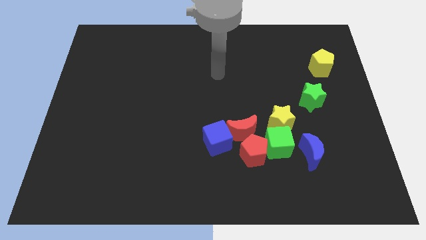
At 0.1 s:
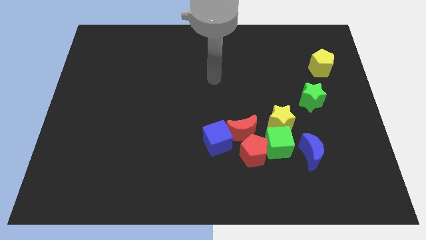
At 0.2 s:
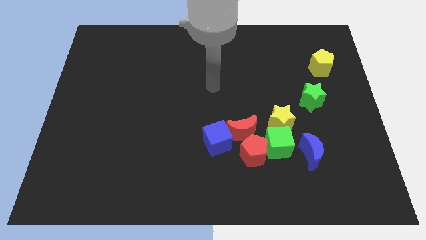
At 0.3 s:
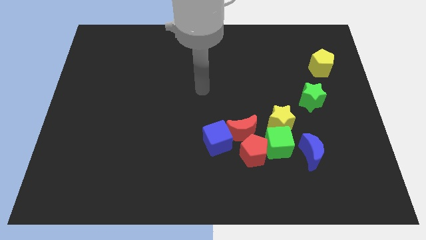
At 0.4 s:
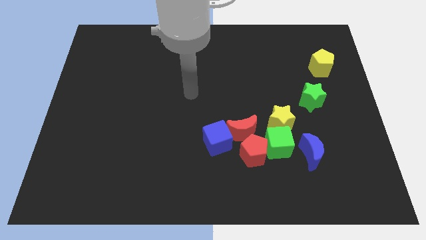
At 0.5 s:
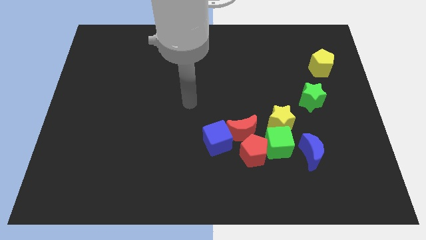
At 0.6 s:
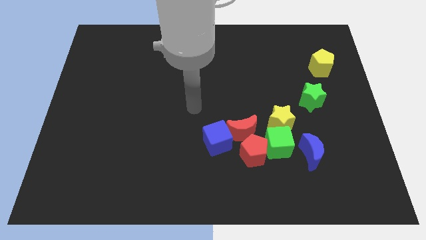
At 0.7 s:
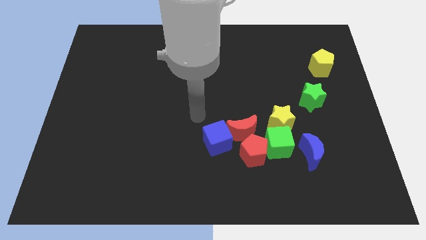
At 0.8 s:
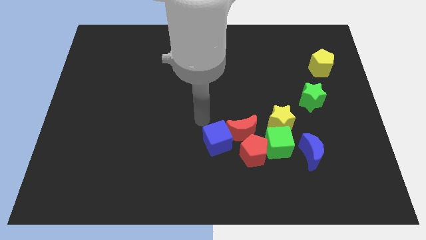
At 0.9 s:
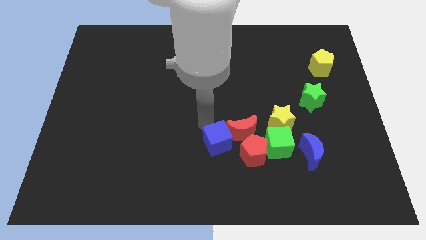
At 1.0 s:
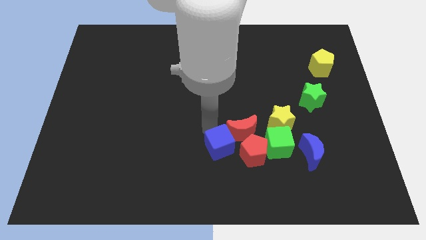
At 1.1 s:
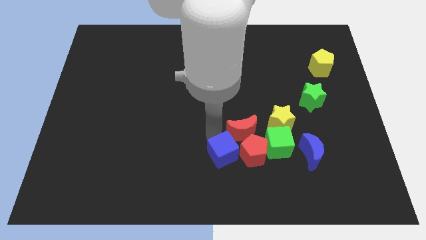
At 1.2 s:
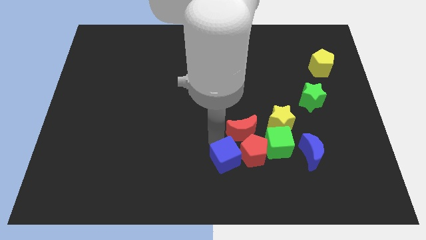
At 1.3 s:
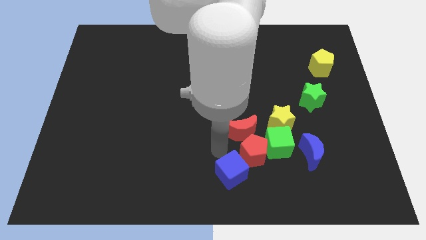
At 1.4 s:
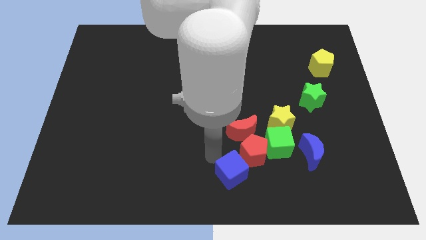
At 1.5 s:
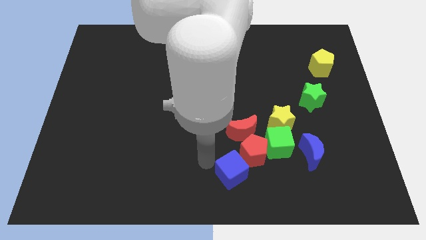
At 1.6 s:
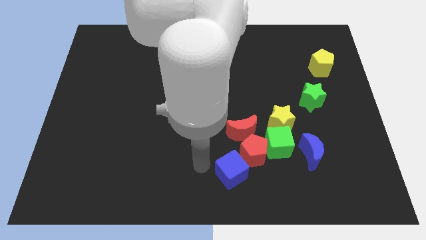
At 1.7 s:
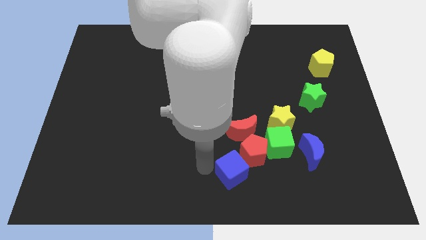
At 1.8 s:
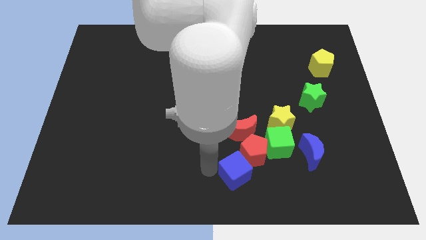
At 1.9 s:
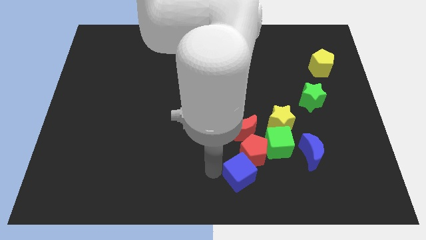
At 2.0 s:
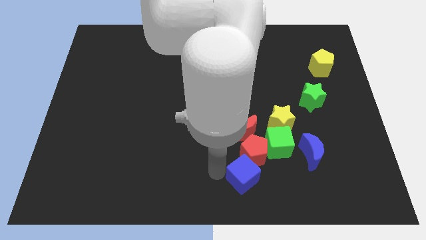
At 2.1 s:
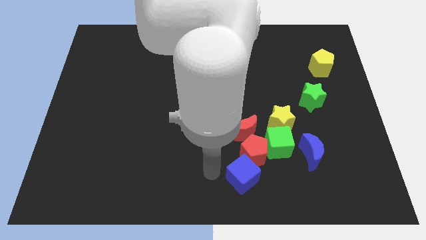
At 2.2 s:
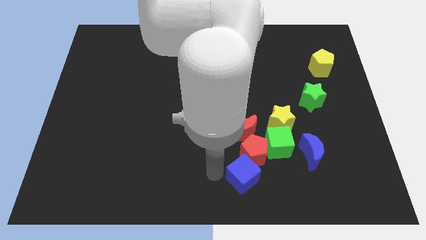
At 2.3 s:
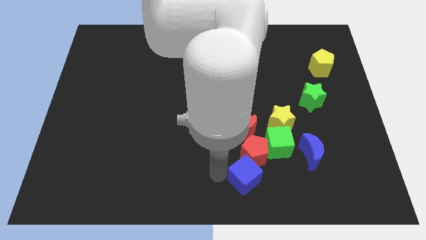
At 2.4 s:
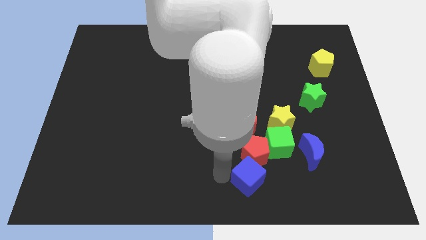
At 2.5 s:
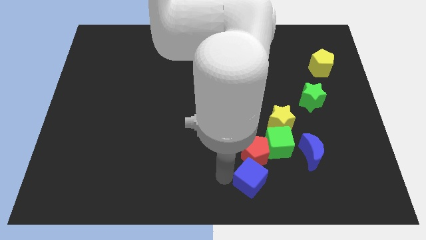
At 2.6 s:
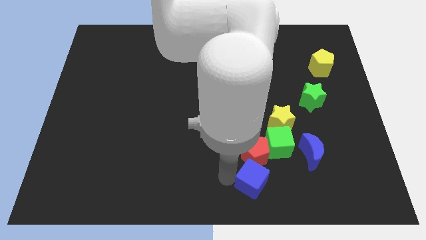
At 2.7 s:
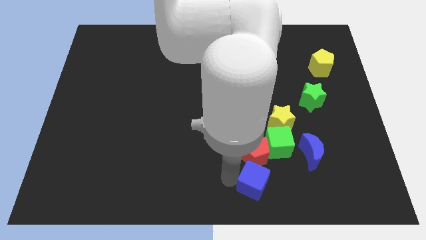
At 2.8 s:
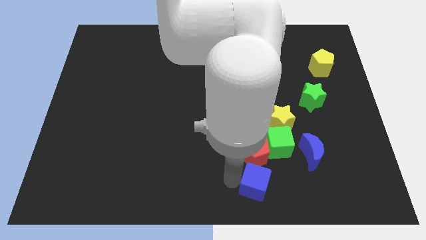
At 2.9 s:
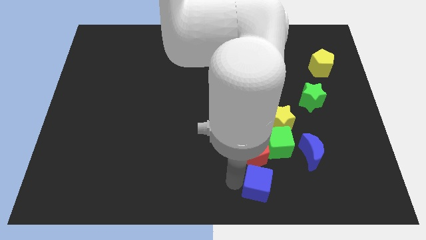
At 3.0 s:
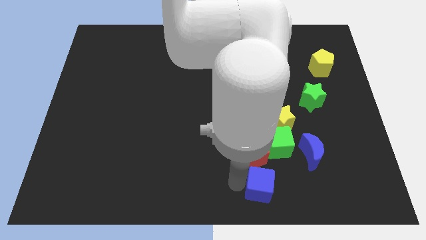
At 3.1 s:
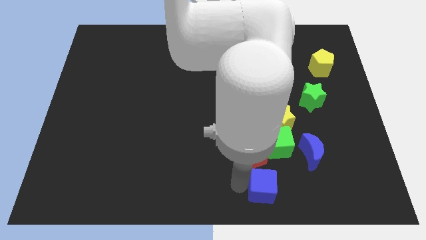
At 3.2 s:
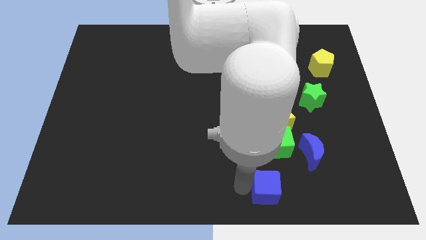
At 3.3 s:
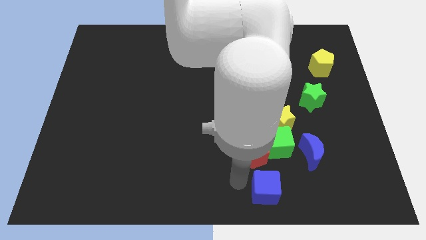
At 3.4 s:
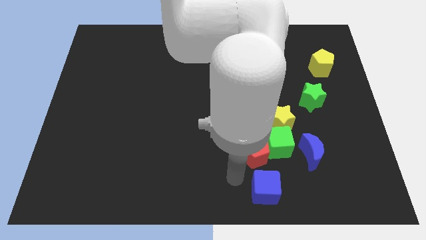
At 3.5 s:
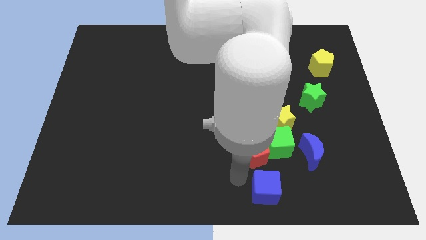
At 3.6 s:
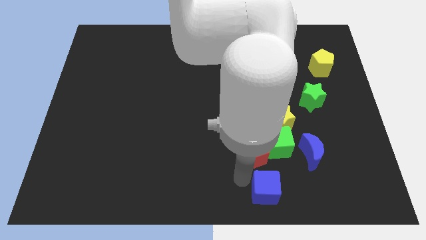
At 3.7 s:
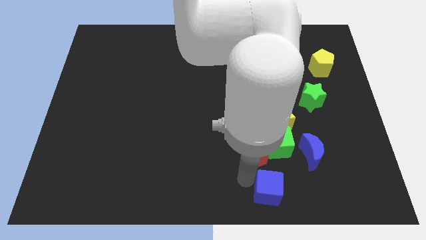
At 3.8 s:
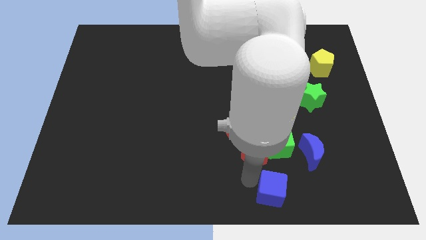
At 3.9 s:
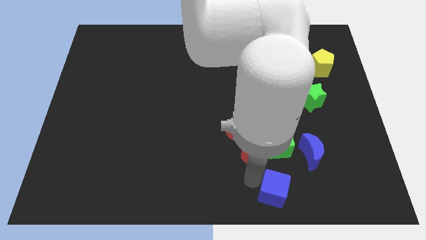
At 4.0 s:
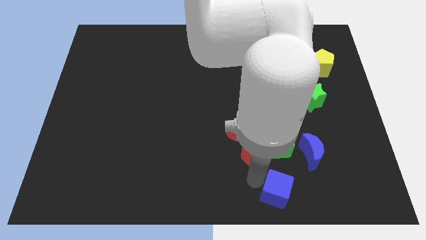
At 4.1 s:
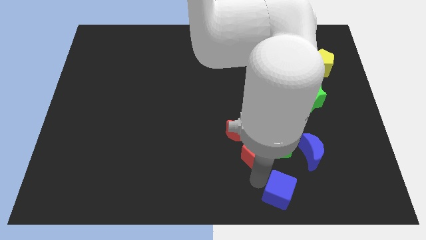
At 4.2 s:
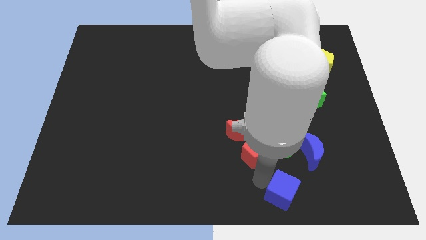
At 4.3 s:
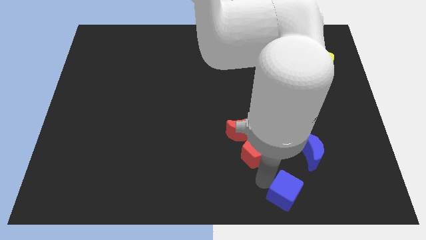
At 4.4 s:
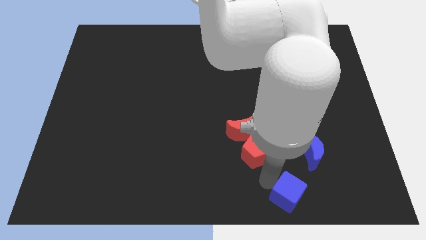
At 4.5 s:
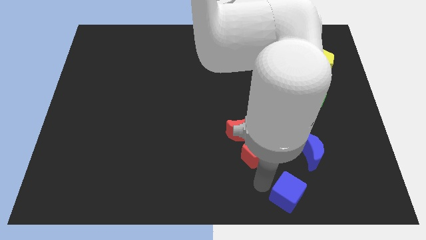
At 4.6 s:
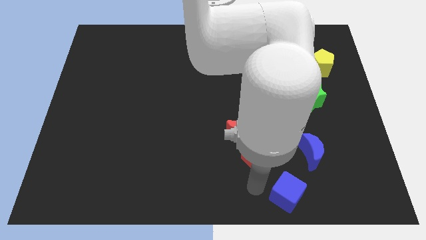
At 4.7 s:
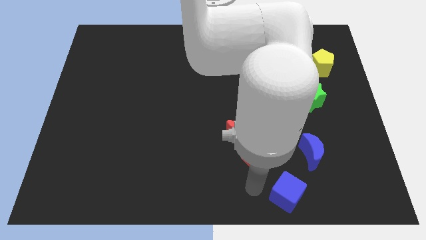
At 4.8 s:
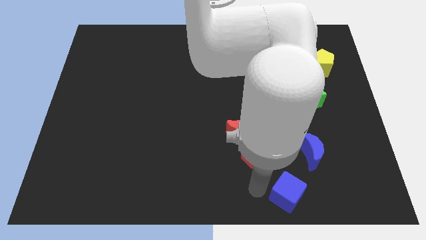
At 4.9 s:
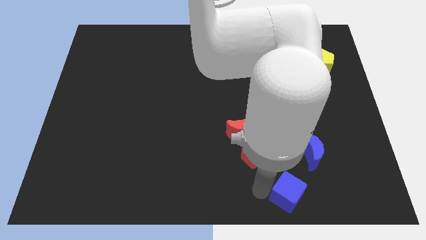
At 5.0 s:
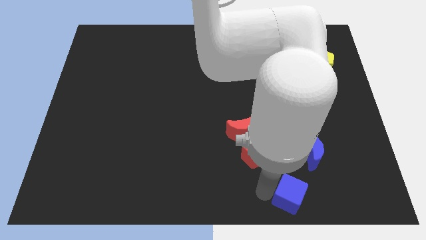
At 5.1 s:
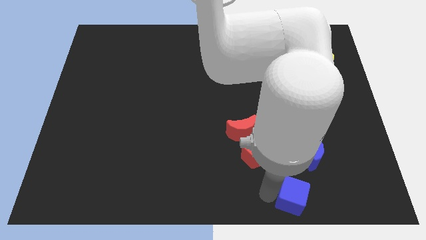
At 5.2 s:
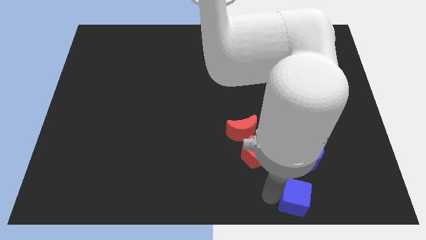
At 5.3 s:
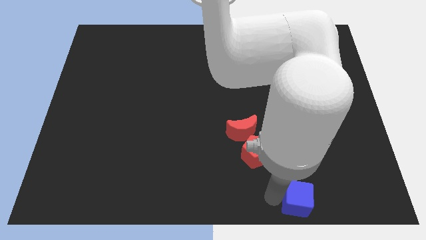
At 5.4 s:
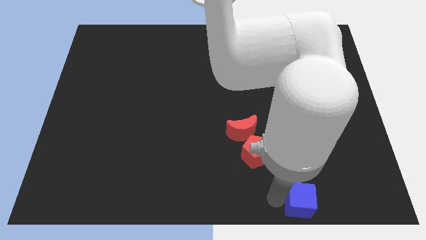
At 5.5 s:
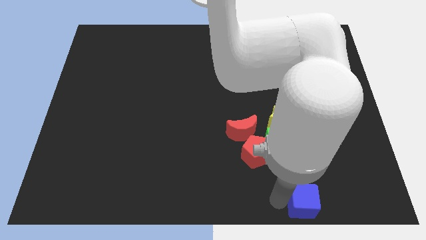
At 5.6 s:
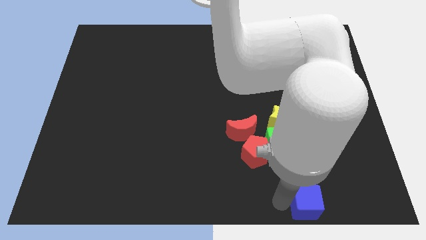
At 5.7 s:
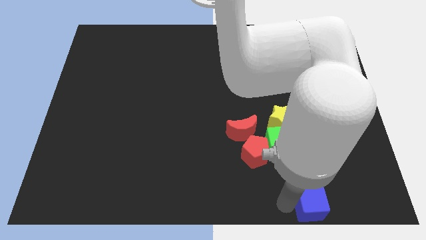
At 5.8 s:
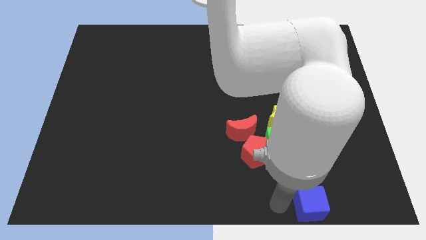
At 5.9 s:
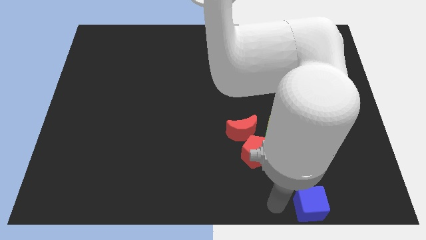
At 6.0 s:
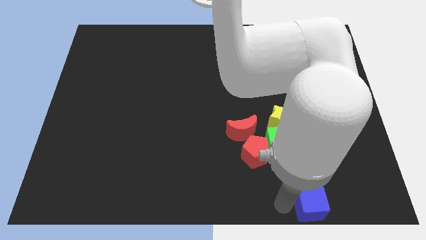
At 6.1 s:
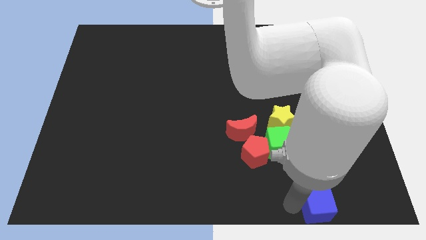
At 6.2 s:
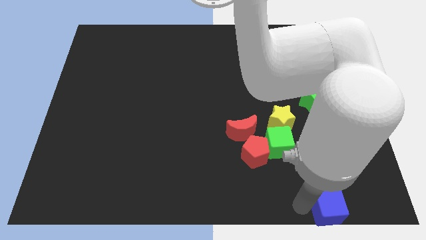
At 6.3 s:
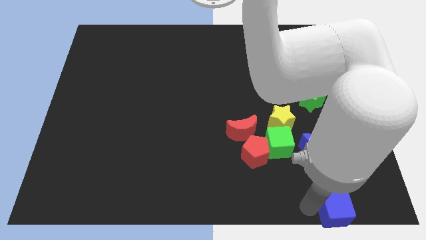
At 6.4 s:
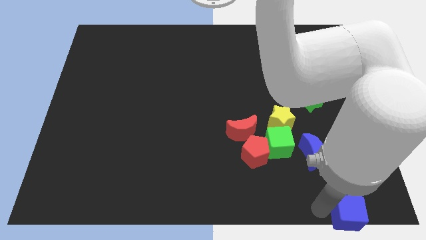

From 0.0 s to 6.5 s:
put the blue cube to the bottom right of the board

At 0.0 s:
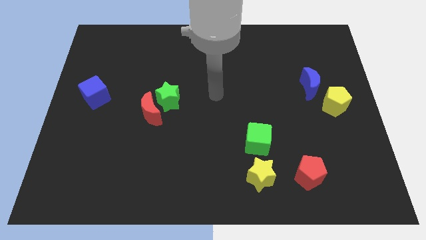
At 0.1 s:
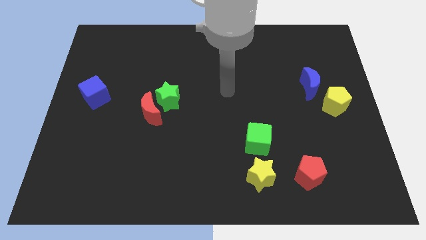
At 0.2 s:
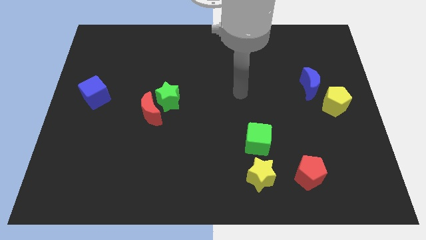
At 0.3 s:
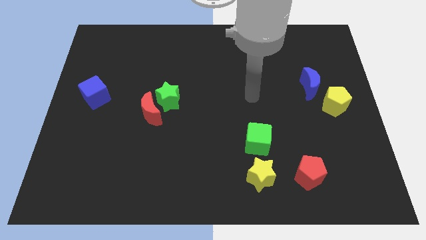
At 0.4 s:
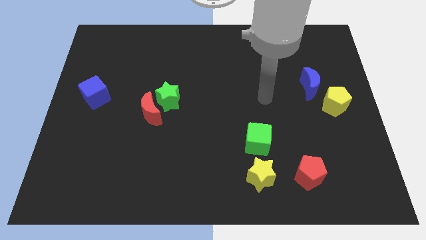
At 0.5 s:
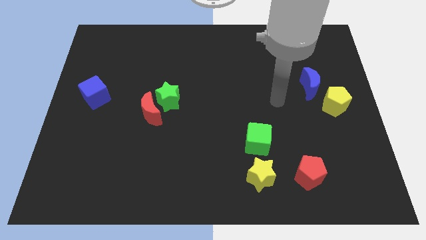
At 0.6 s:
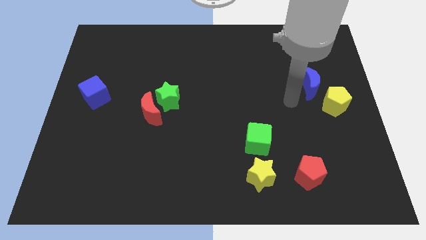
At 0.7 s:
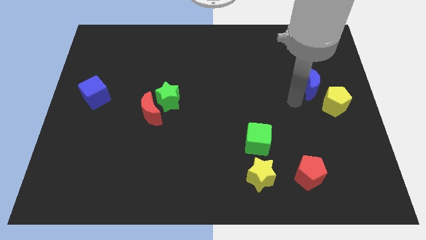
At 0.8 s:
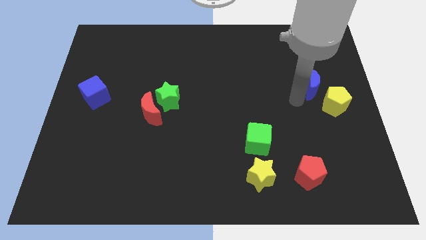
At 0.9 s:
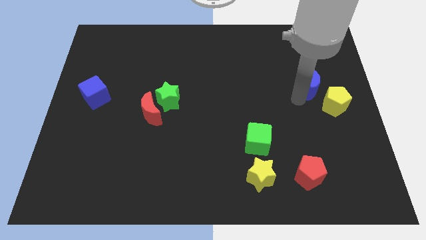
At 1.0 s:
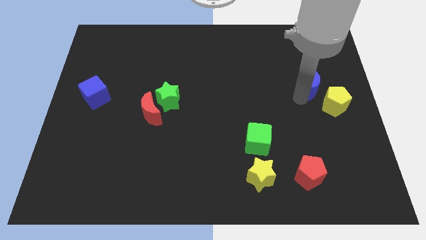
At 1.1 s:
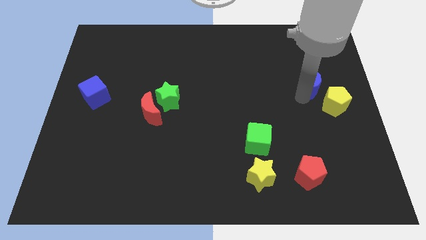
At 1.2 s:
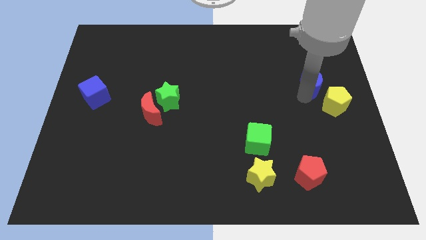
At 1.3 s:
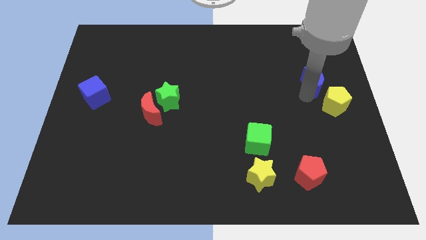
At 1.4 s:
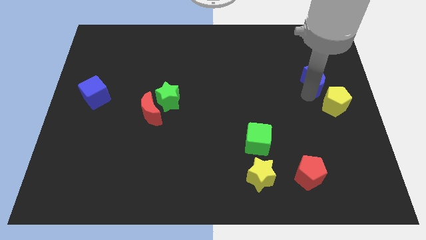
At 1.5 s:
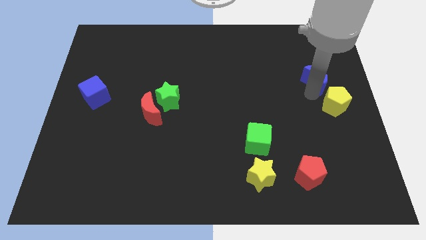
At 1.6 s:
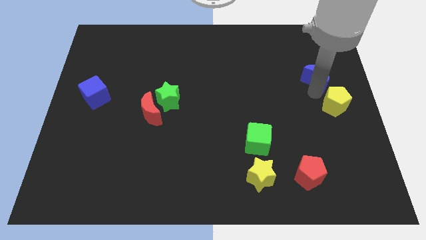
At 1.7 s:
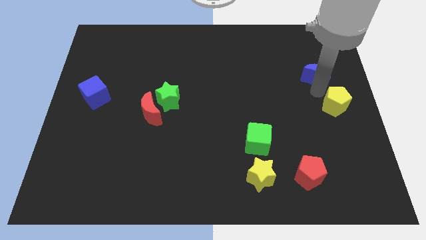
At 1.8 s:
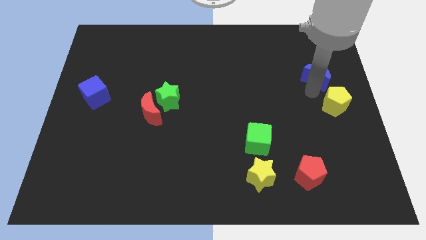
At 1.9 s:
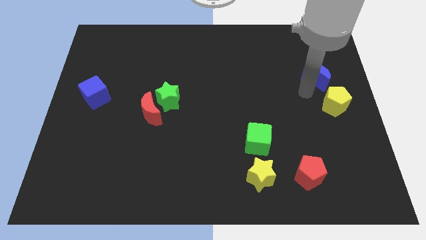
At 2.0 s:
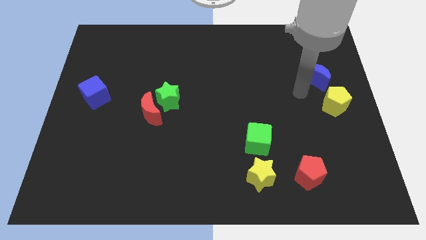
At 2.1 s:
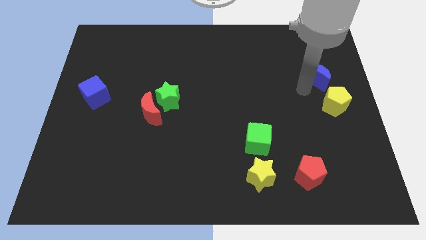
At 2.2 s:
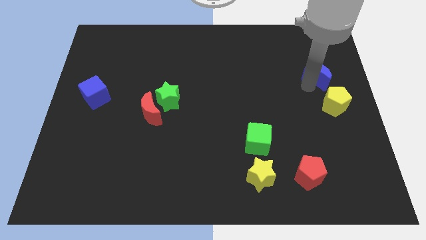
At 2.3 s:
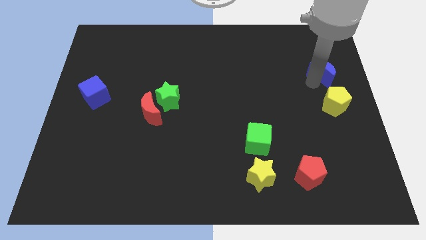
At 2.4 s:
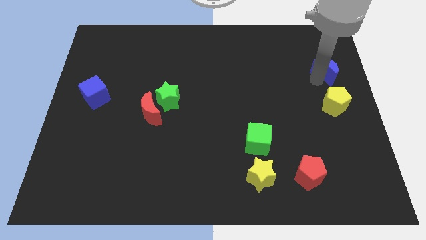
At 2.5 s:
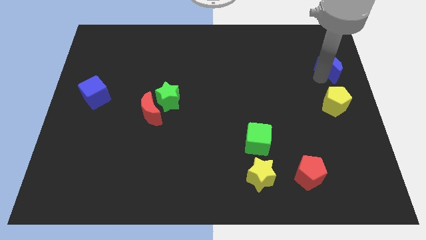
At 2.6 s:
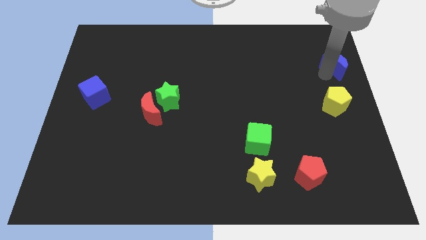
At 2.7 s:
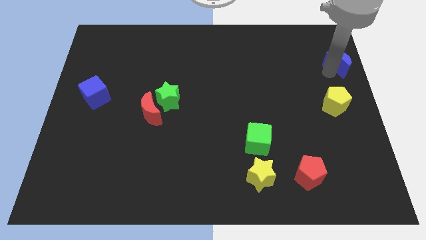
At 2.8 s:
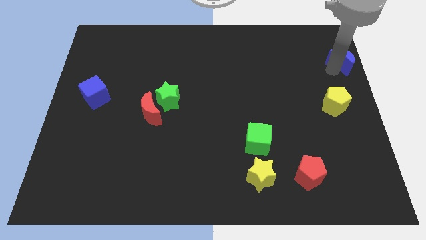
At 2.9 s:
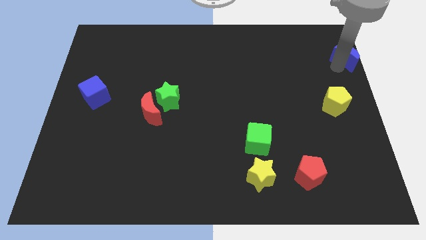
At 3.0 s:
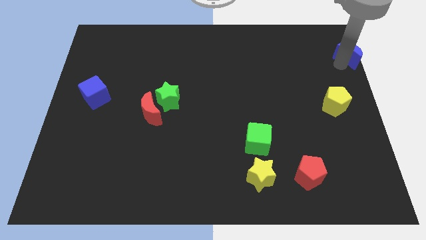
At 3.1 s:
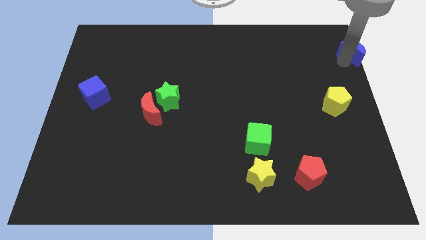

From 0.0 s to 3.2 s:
slide the blue moon to the top right
